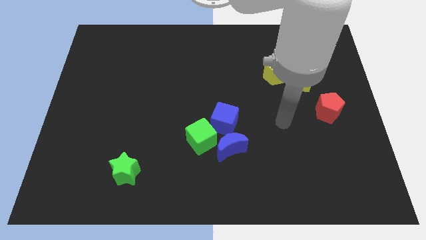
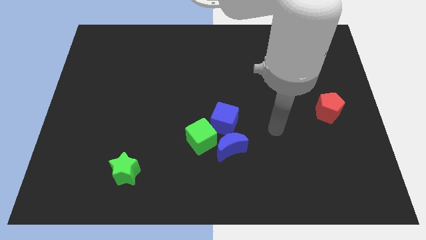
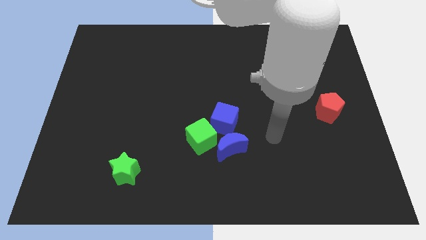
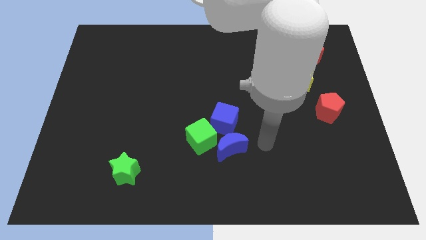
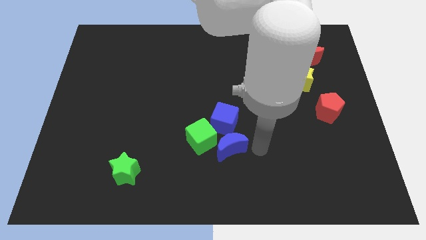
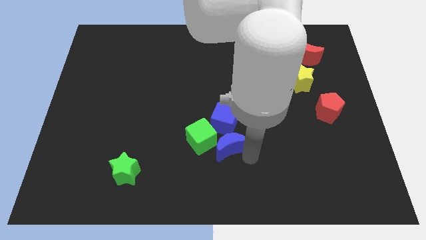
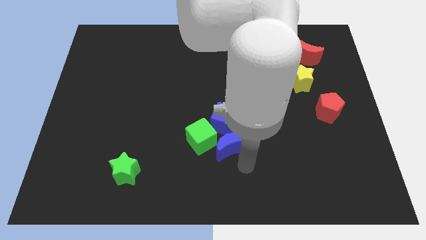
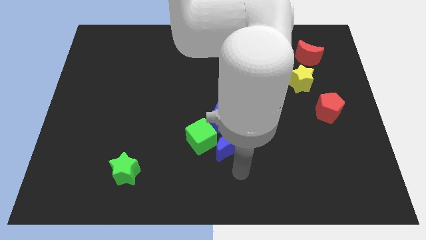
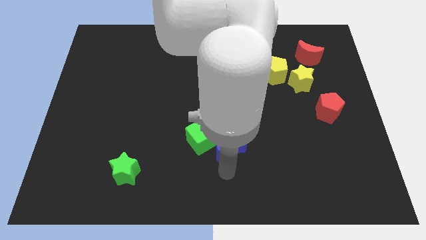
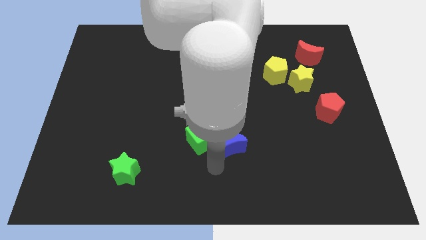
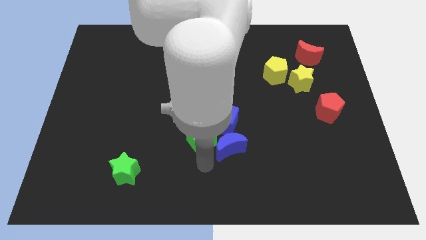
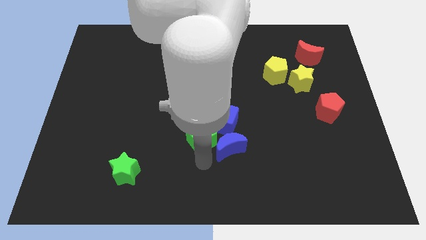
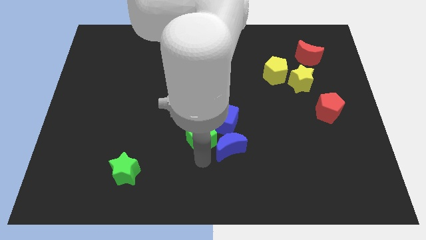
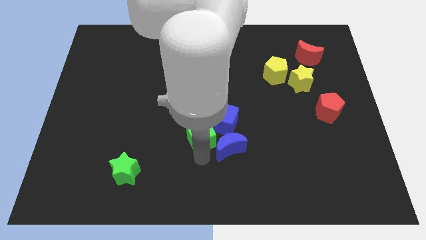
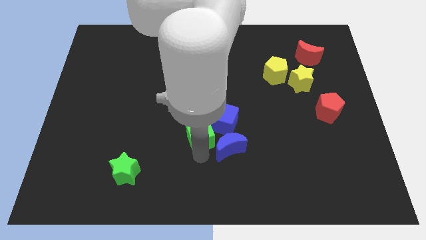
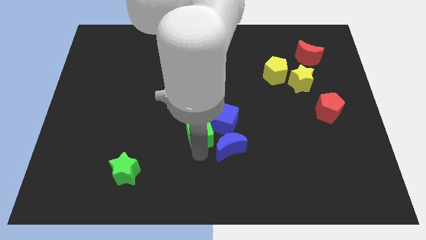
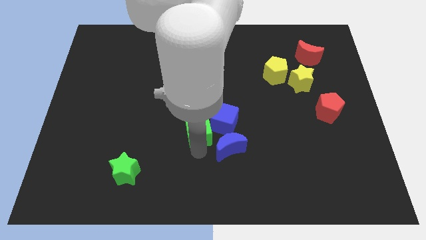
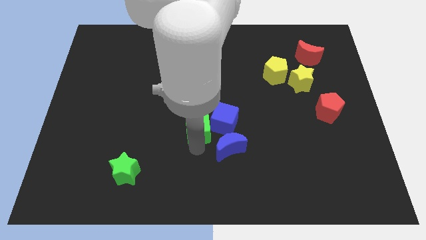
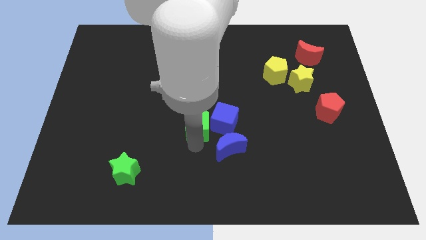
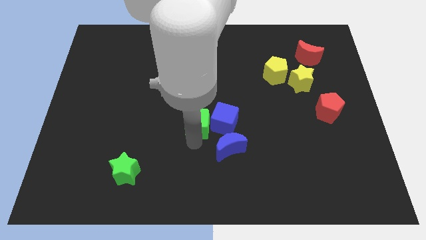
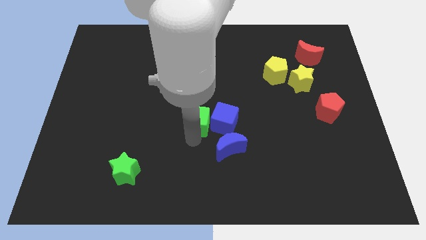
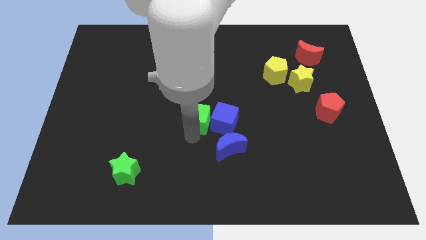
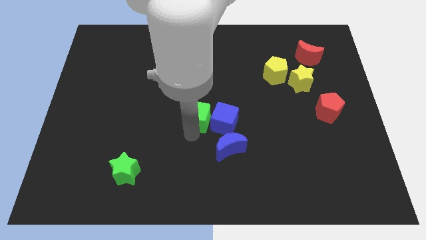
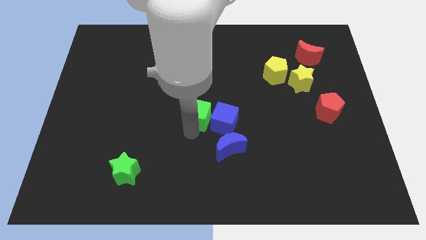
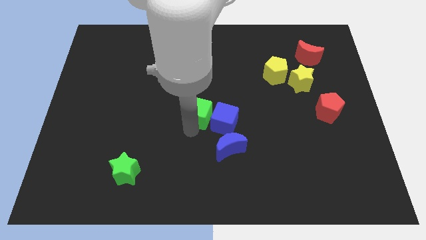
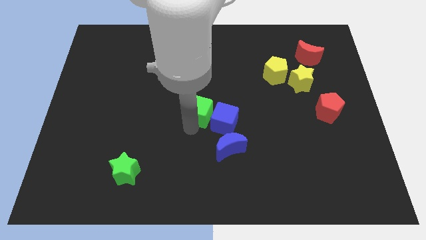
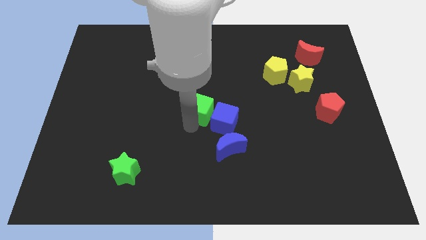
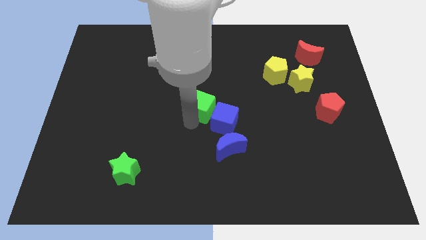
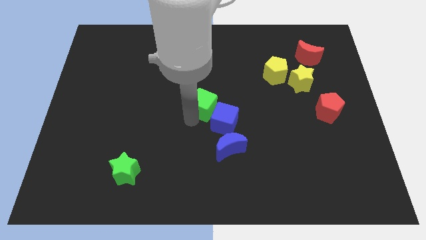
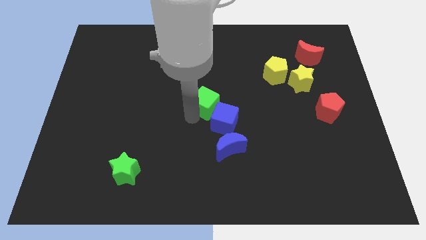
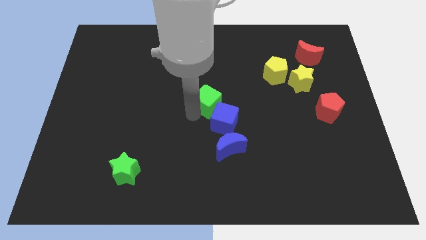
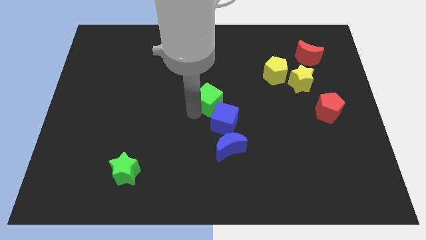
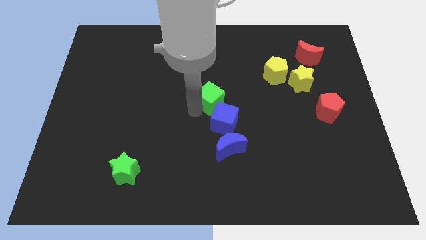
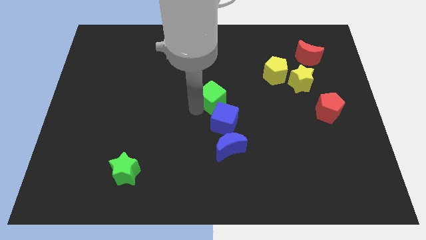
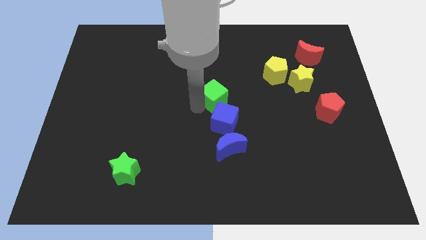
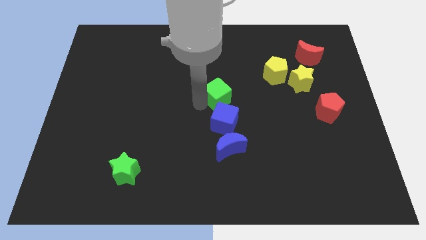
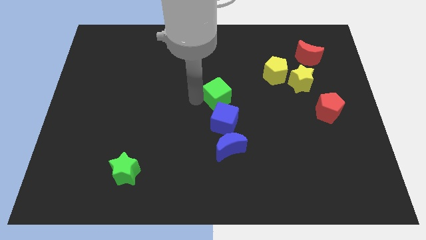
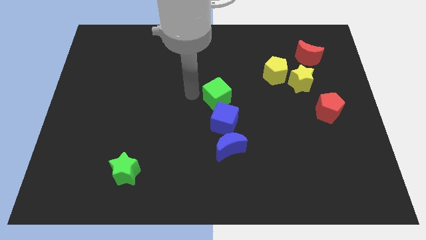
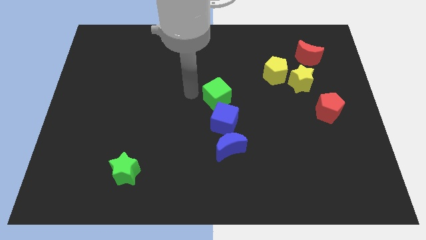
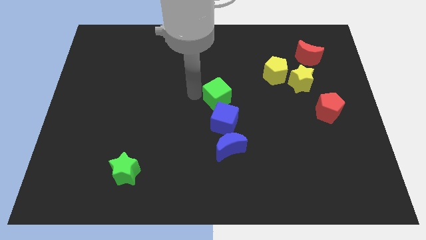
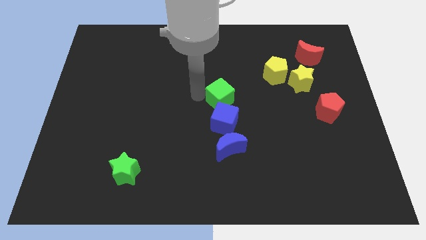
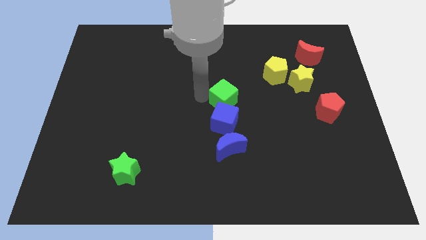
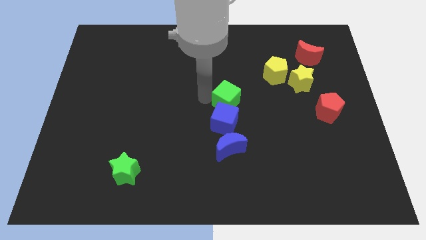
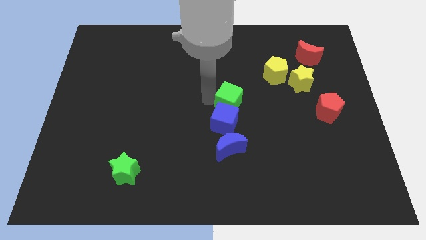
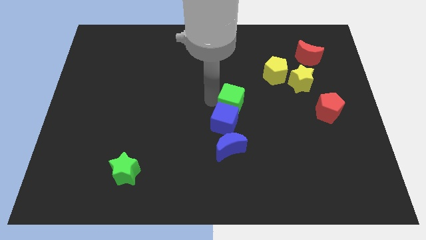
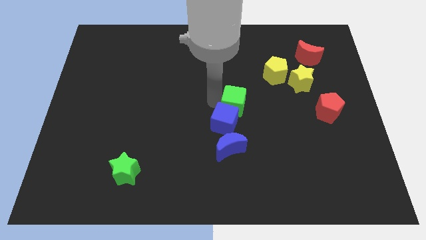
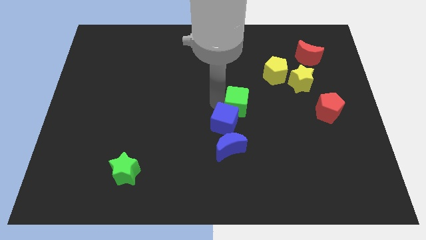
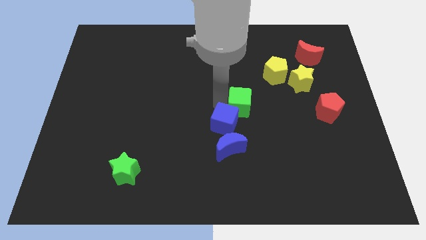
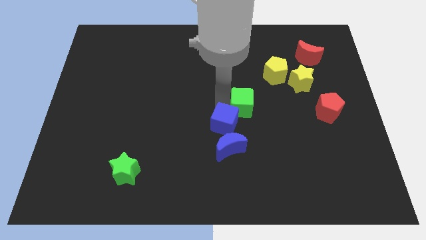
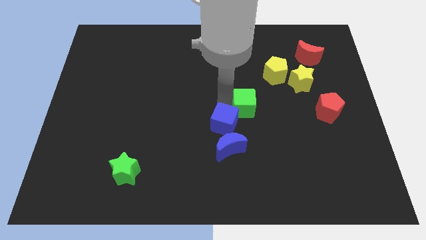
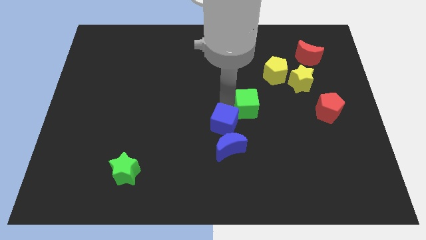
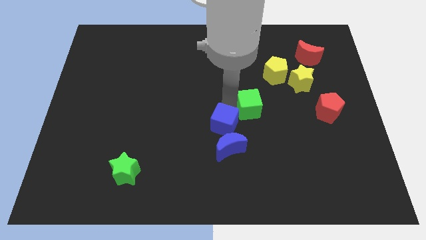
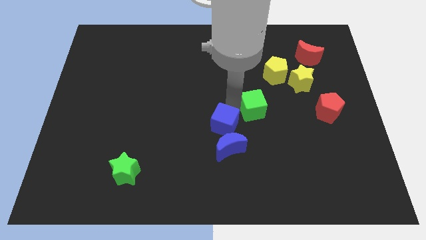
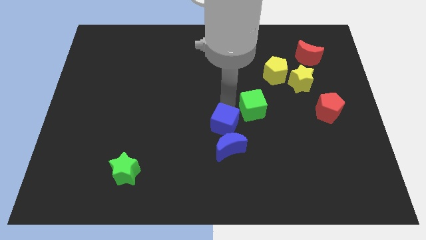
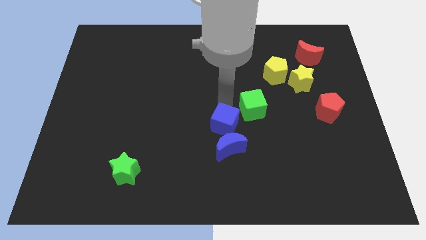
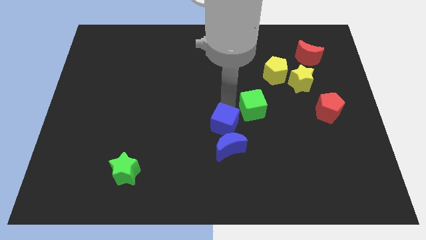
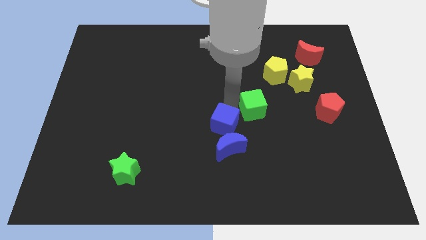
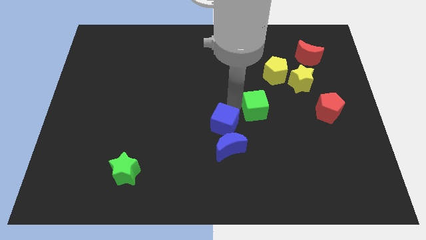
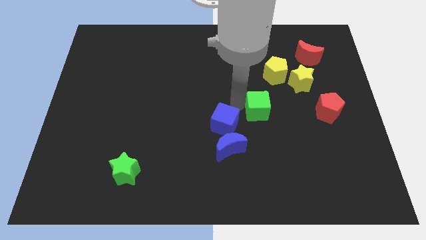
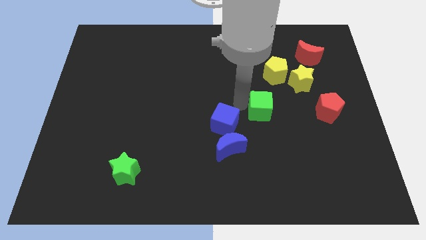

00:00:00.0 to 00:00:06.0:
push the green cube just left of the red pentagon

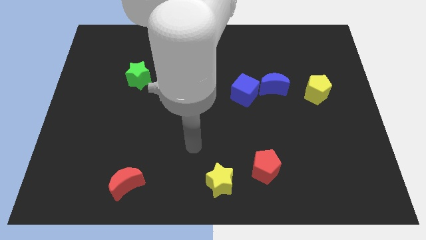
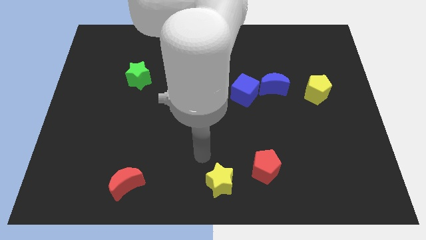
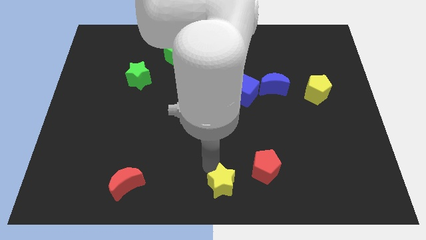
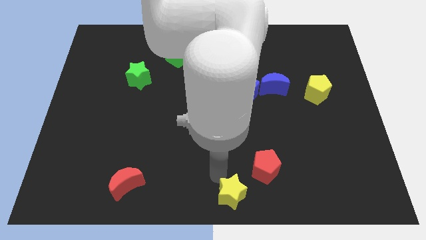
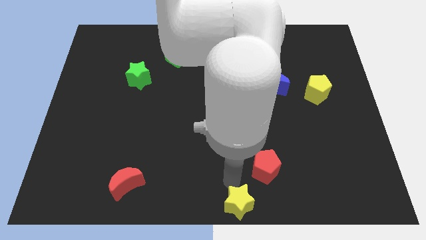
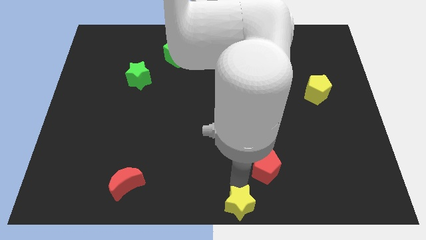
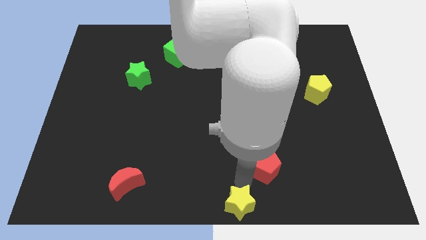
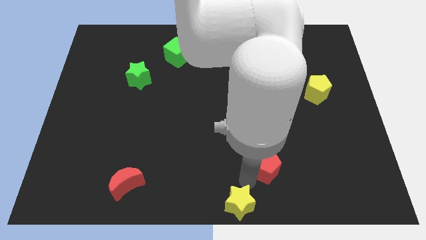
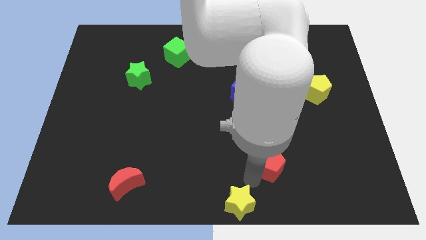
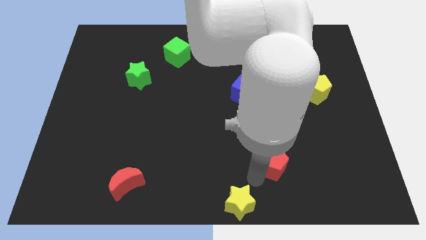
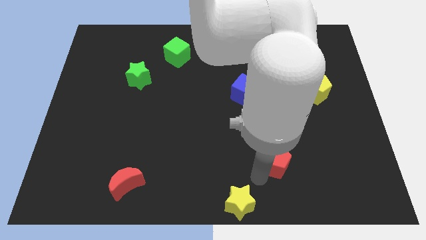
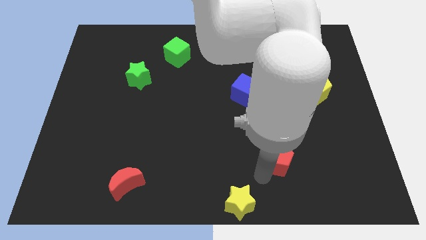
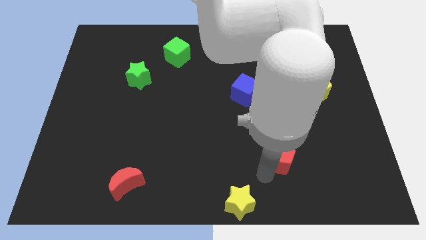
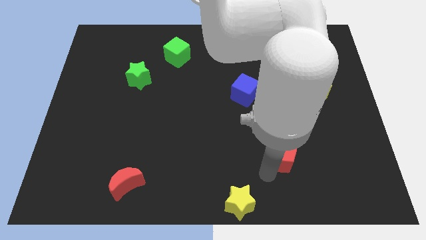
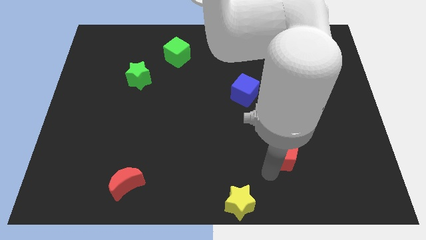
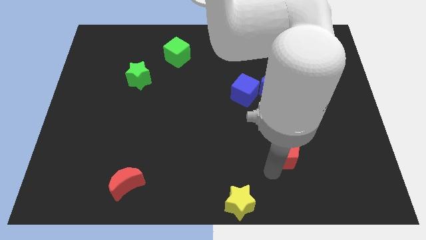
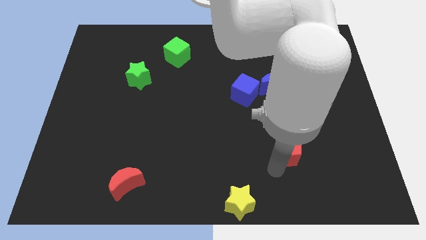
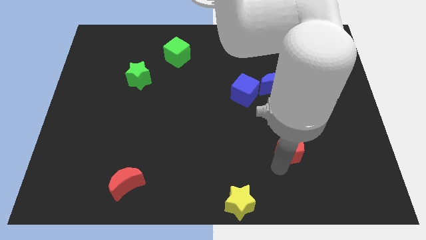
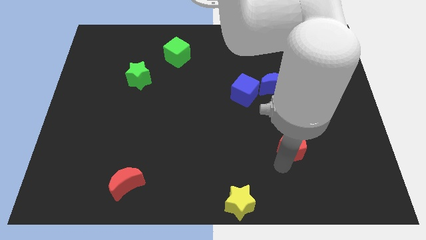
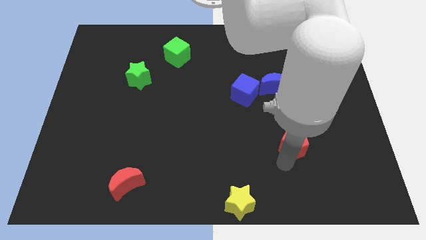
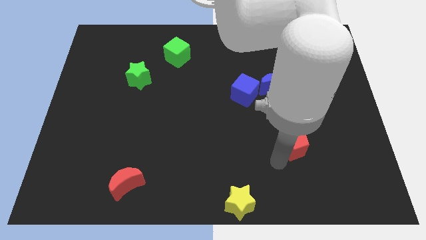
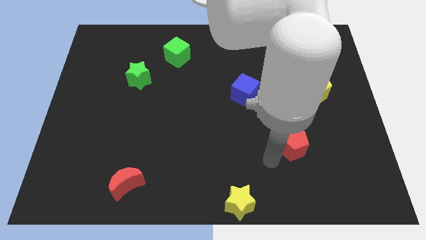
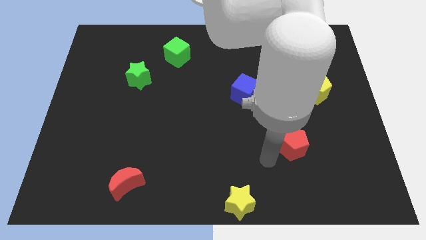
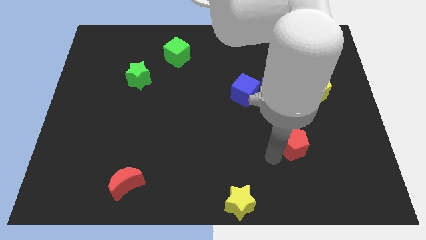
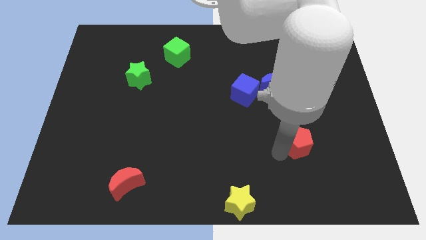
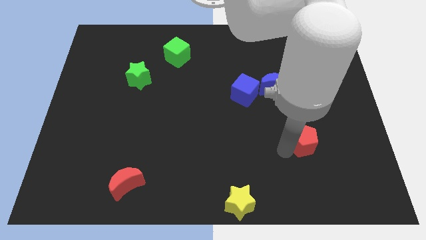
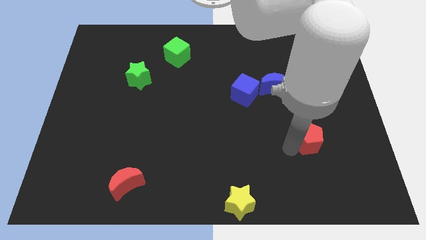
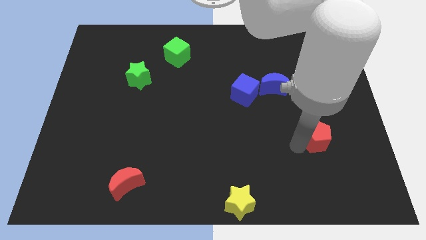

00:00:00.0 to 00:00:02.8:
move the red pentagon below the yellow pentagon
